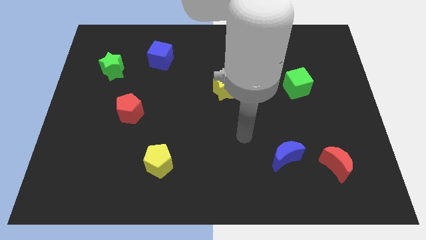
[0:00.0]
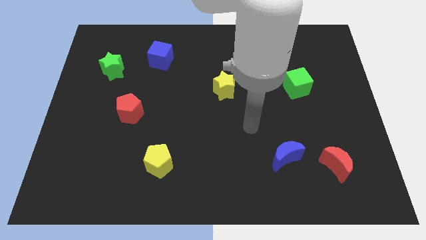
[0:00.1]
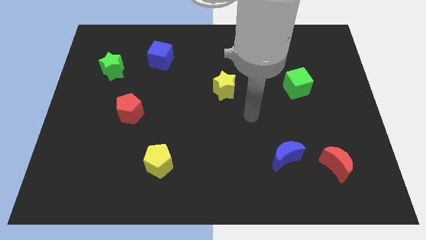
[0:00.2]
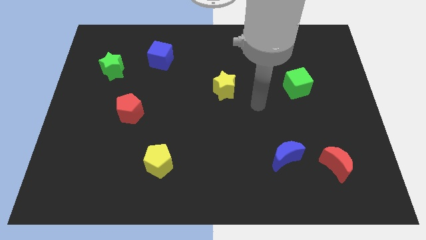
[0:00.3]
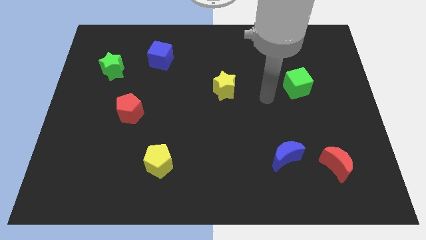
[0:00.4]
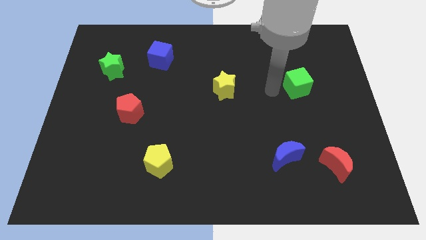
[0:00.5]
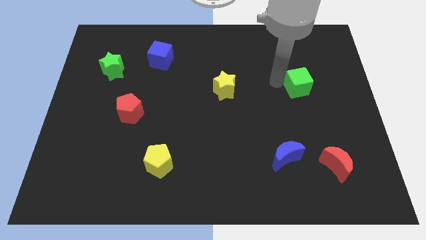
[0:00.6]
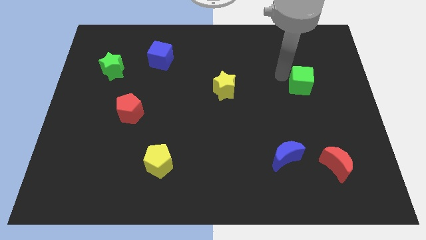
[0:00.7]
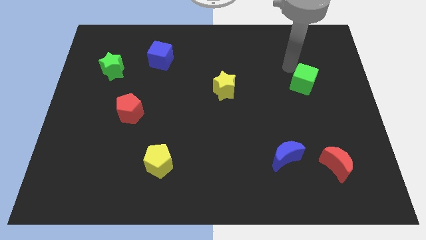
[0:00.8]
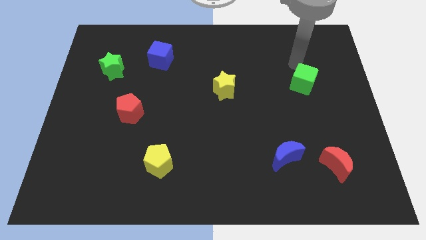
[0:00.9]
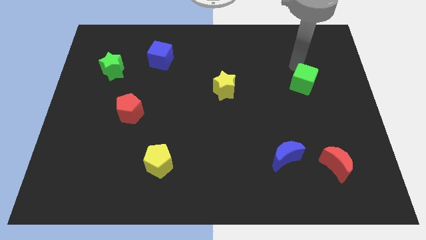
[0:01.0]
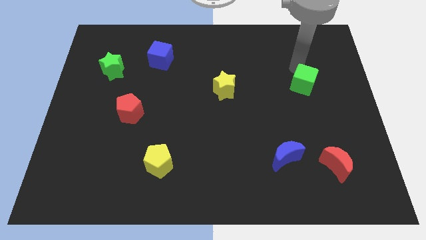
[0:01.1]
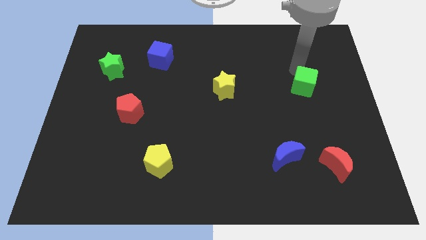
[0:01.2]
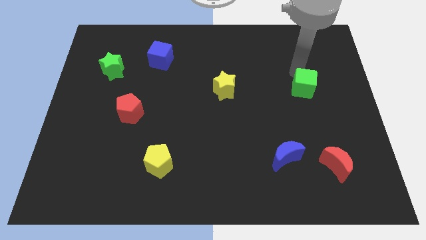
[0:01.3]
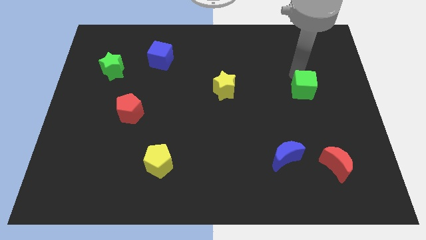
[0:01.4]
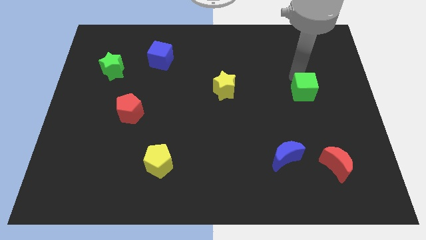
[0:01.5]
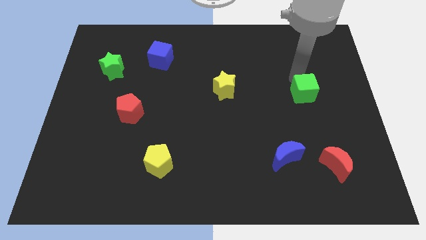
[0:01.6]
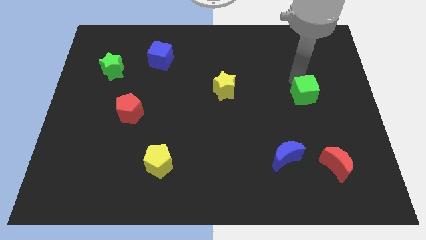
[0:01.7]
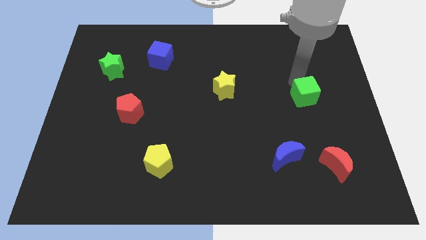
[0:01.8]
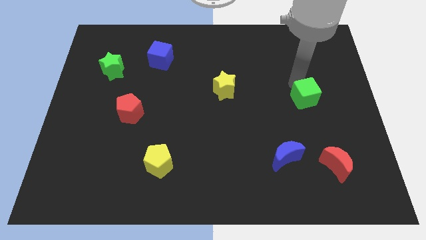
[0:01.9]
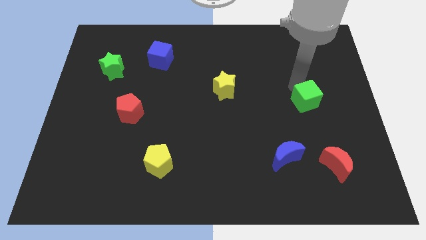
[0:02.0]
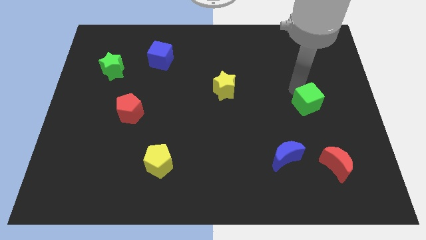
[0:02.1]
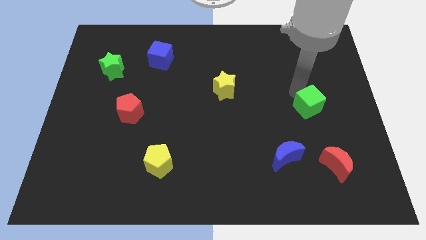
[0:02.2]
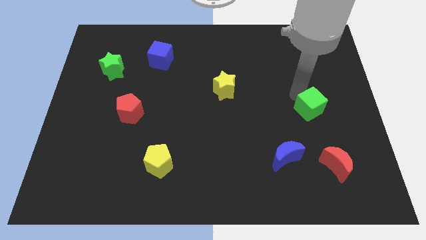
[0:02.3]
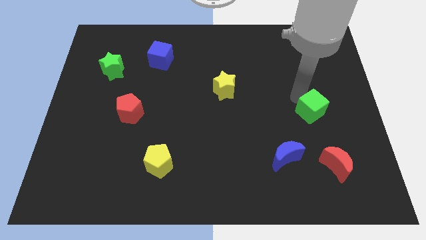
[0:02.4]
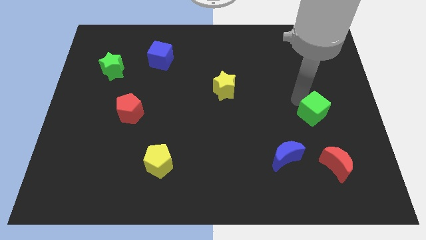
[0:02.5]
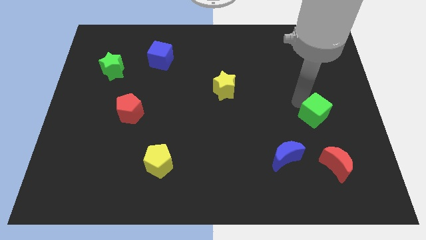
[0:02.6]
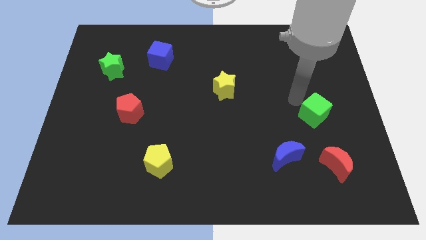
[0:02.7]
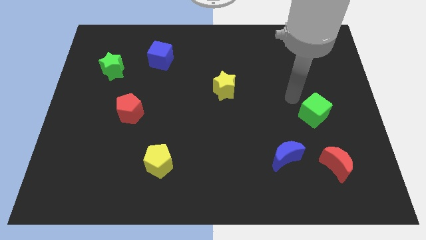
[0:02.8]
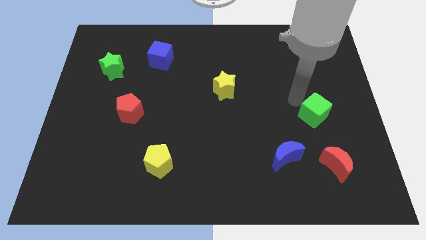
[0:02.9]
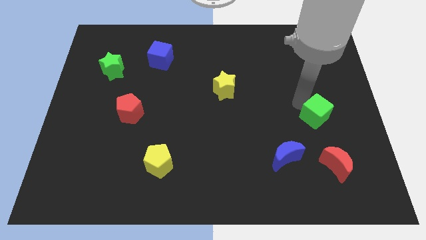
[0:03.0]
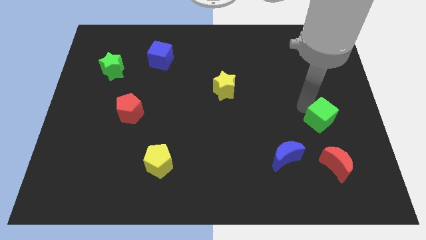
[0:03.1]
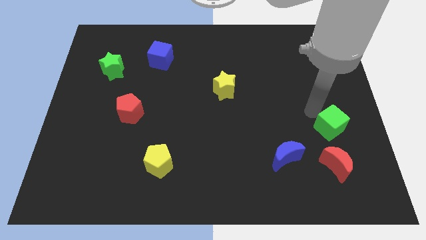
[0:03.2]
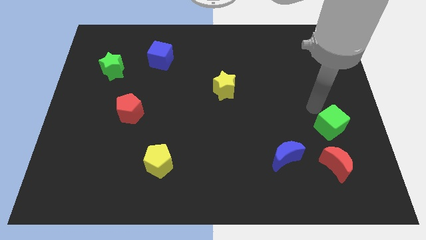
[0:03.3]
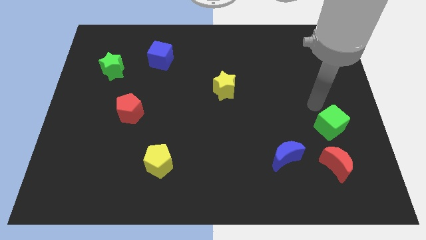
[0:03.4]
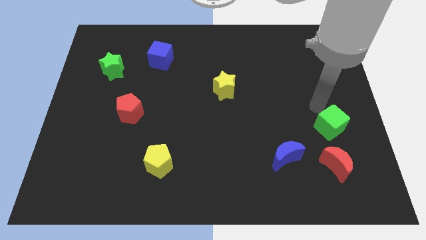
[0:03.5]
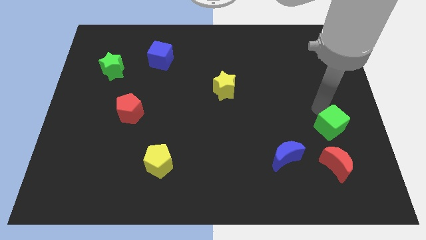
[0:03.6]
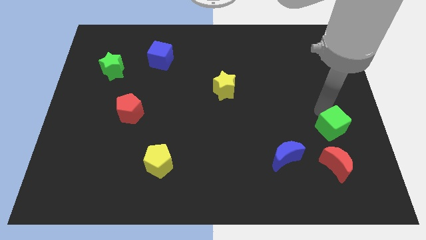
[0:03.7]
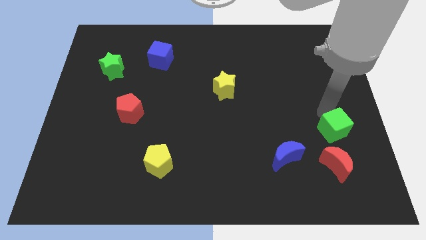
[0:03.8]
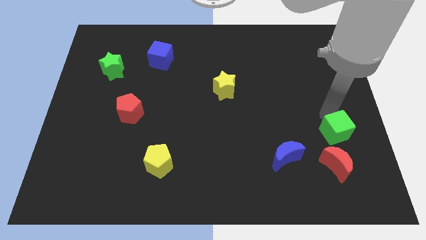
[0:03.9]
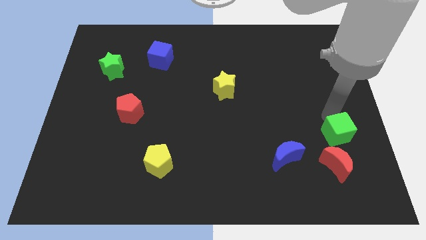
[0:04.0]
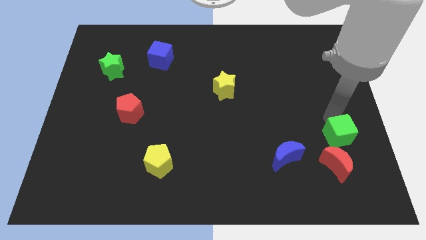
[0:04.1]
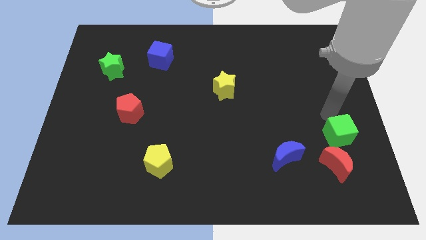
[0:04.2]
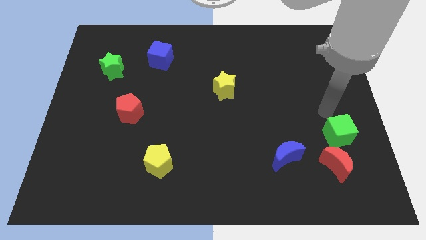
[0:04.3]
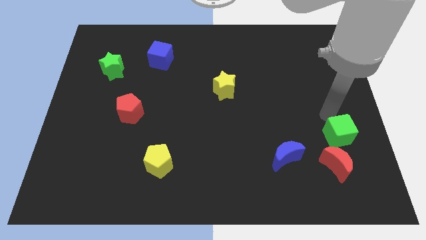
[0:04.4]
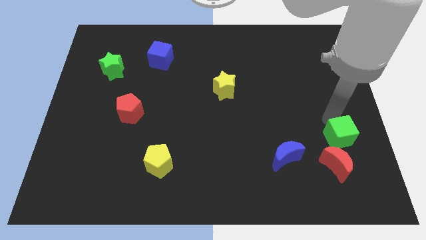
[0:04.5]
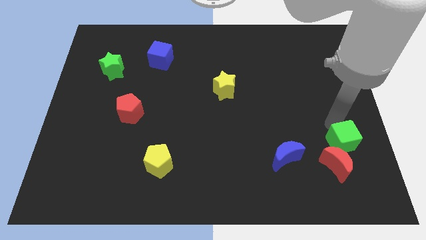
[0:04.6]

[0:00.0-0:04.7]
move the green cube right of the blue moon

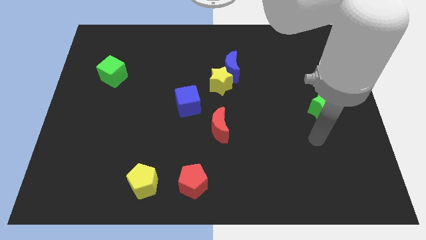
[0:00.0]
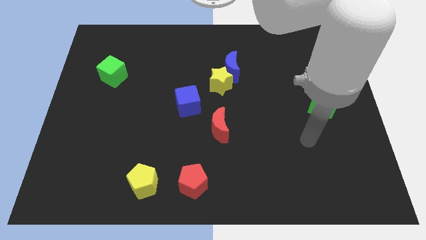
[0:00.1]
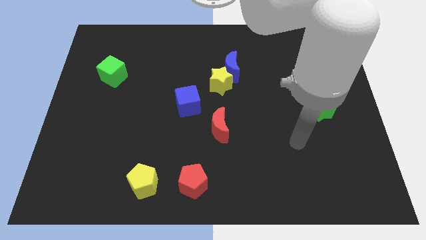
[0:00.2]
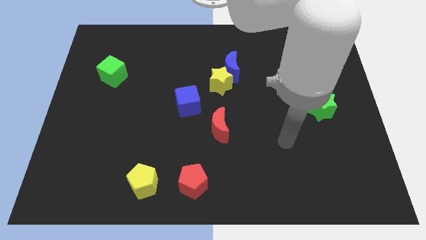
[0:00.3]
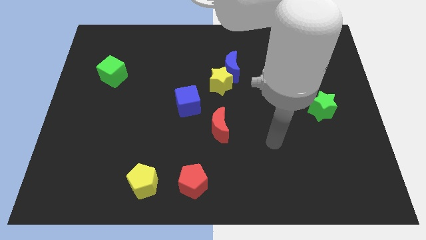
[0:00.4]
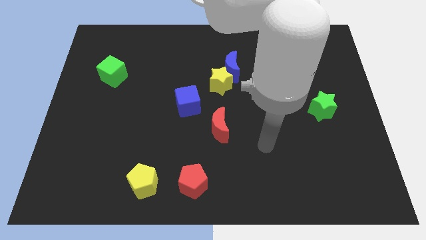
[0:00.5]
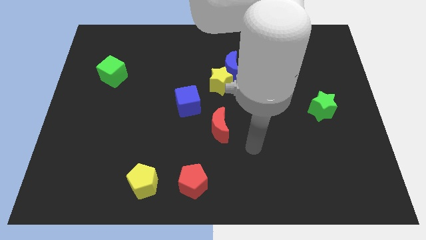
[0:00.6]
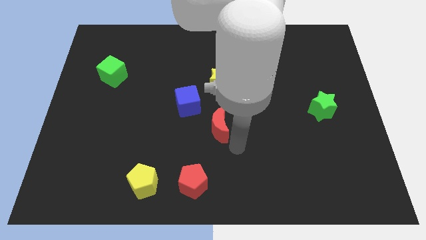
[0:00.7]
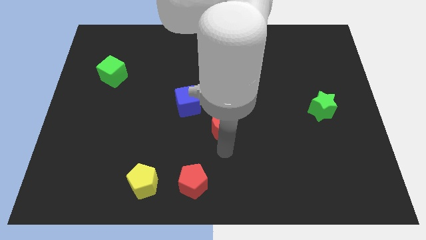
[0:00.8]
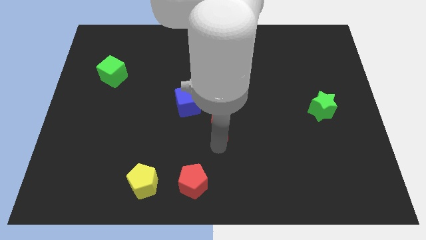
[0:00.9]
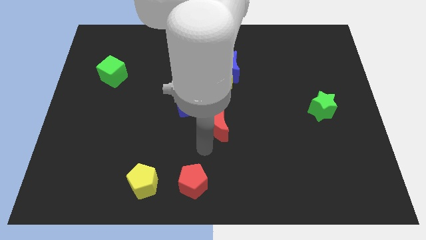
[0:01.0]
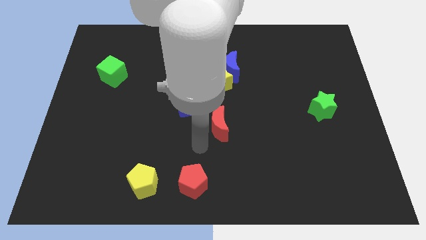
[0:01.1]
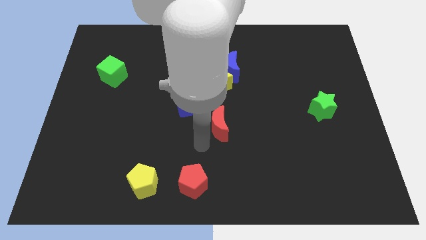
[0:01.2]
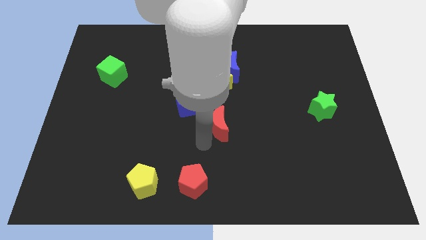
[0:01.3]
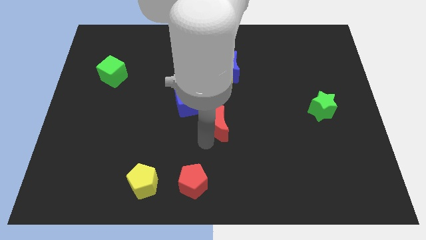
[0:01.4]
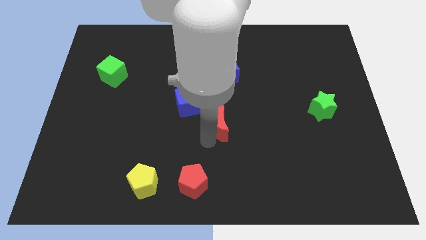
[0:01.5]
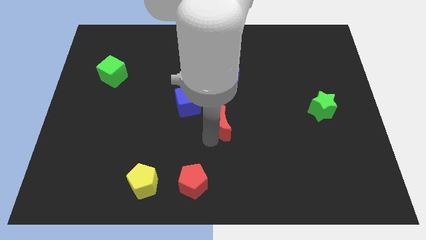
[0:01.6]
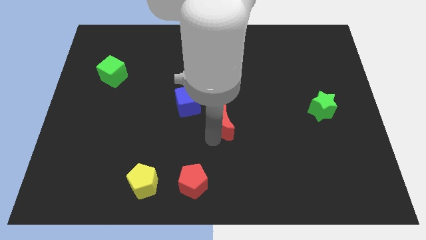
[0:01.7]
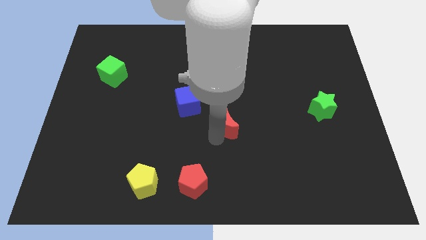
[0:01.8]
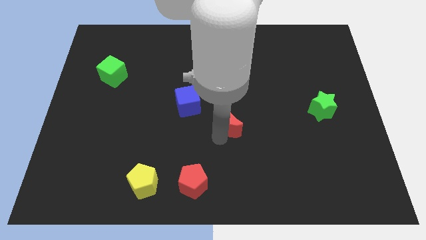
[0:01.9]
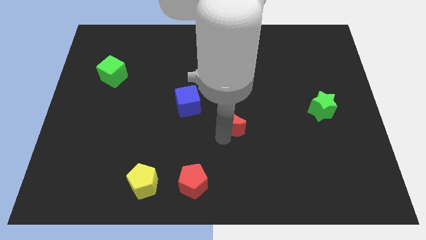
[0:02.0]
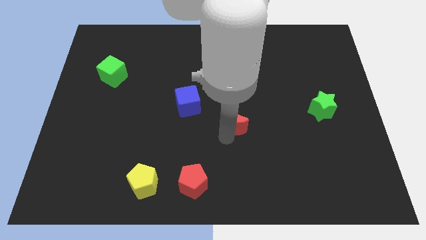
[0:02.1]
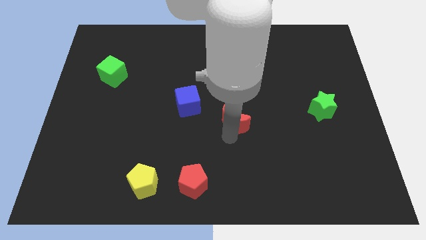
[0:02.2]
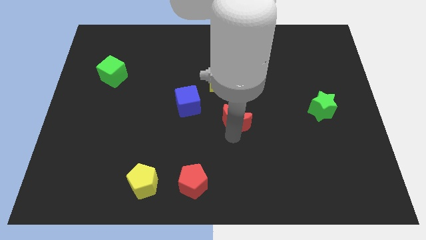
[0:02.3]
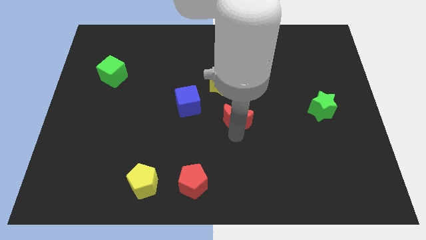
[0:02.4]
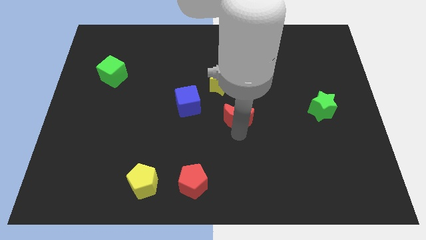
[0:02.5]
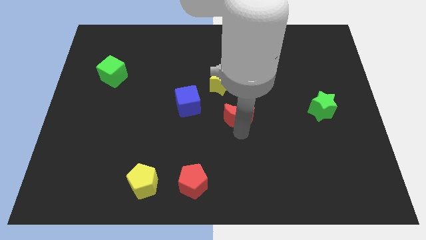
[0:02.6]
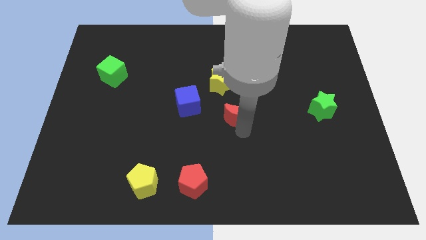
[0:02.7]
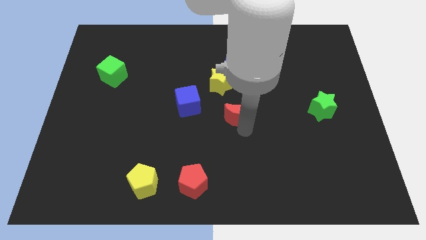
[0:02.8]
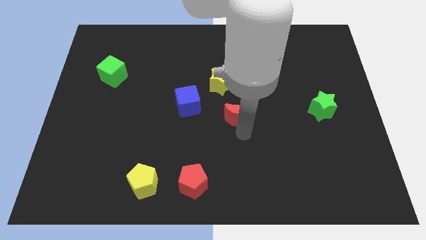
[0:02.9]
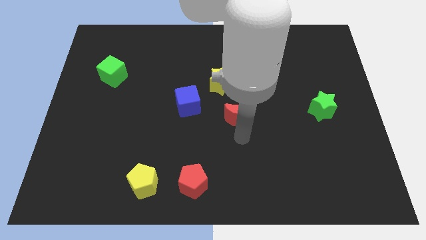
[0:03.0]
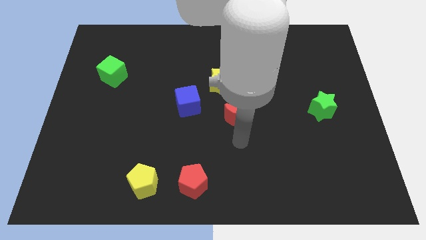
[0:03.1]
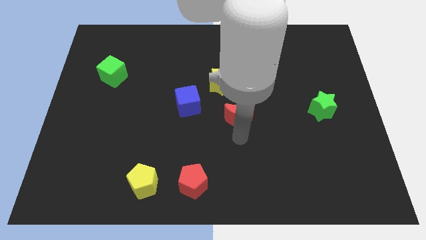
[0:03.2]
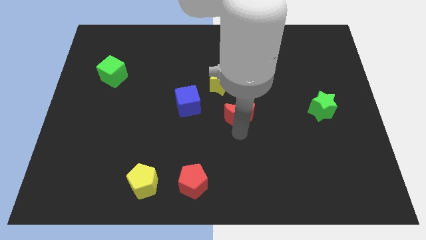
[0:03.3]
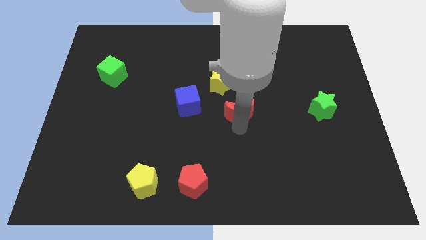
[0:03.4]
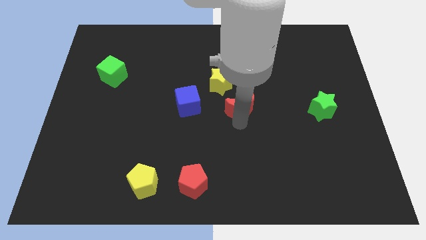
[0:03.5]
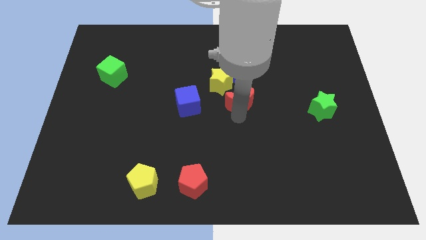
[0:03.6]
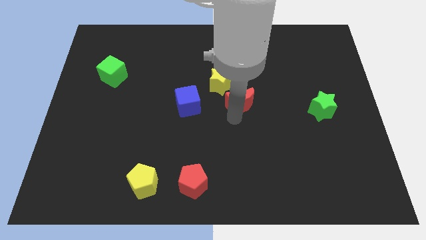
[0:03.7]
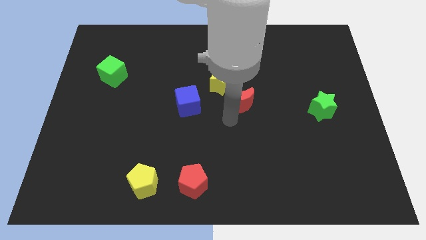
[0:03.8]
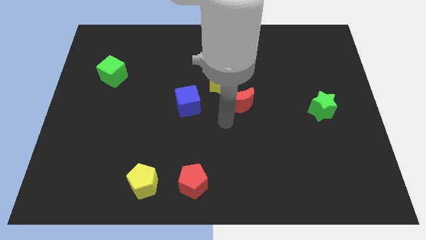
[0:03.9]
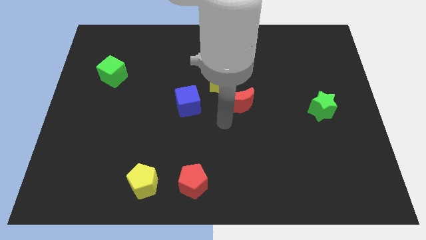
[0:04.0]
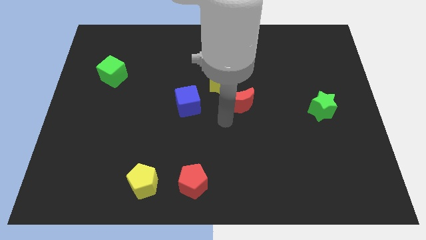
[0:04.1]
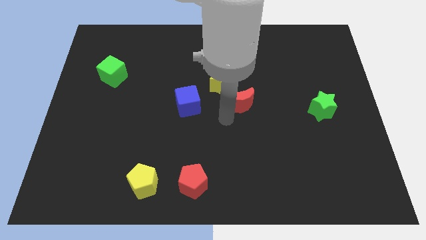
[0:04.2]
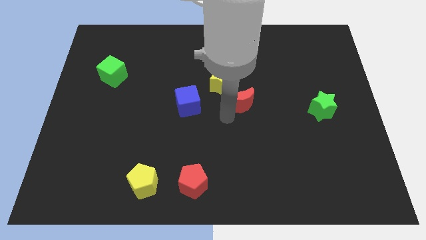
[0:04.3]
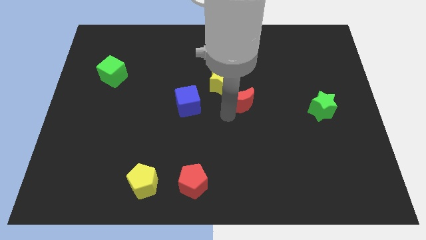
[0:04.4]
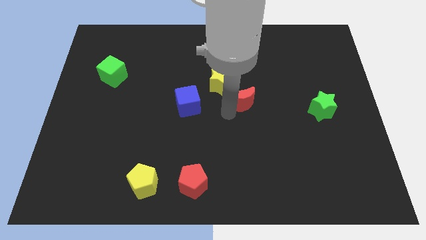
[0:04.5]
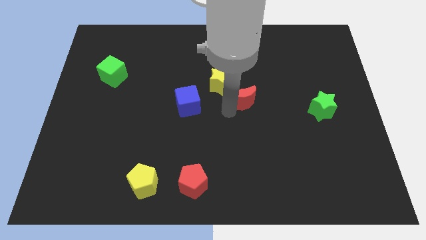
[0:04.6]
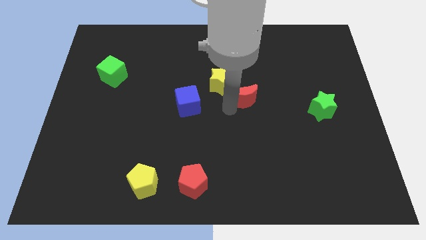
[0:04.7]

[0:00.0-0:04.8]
move the red moon just right of the yellow star
